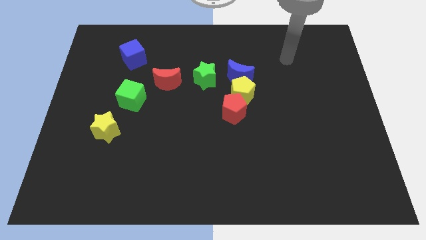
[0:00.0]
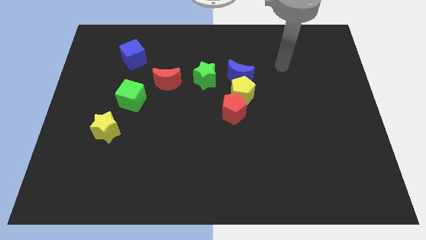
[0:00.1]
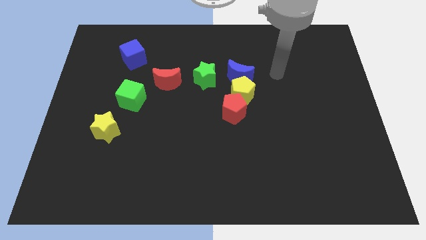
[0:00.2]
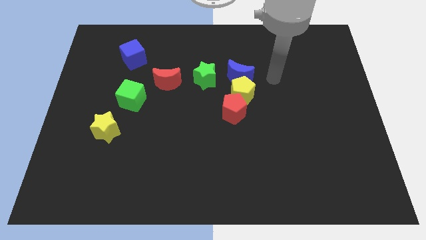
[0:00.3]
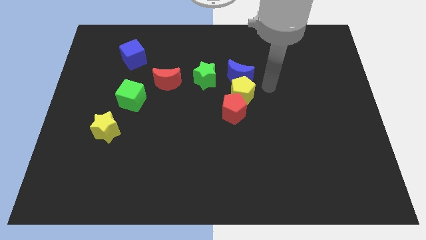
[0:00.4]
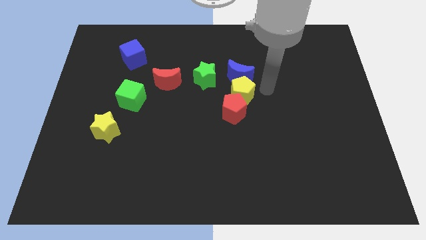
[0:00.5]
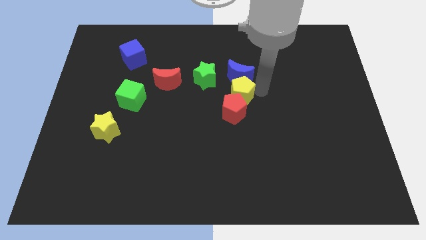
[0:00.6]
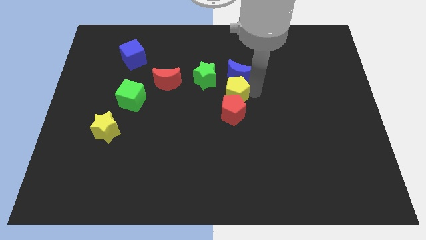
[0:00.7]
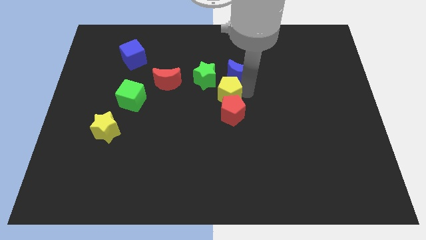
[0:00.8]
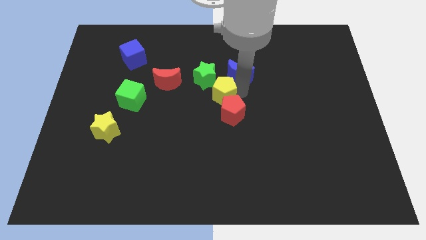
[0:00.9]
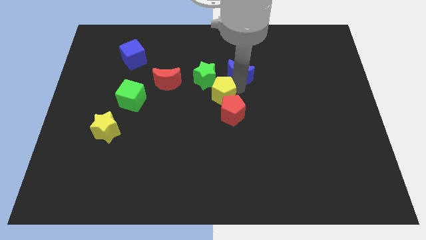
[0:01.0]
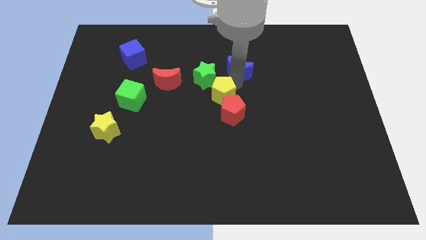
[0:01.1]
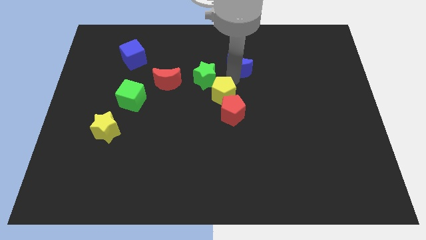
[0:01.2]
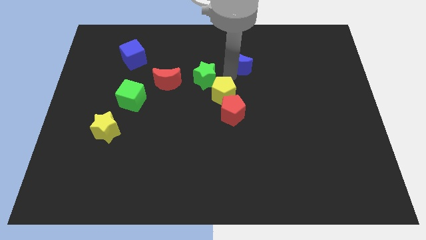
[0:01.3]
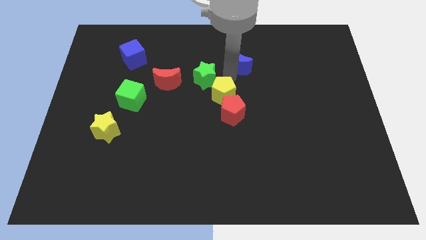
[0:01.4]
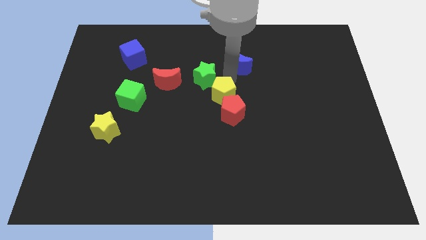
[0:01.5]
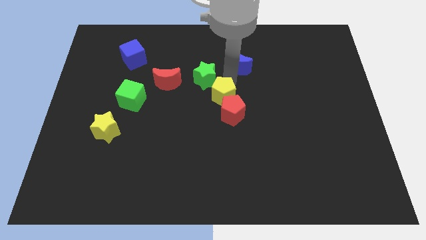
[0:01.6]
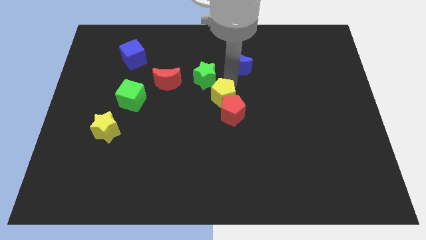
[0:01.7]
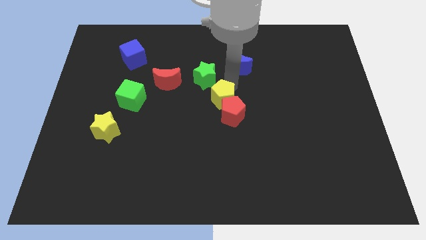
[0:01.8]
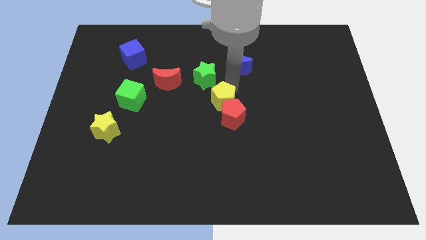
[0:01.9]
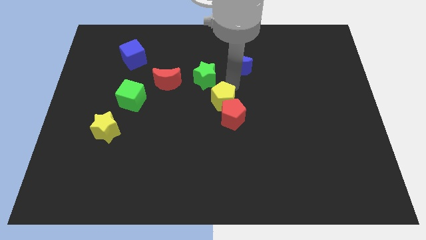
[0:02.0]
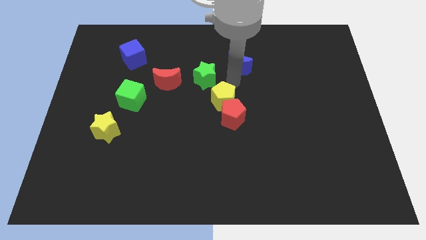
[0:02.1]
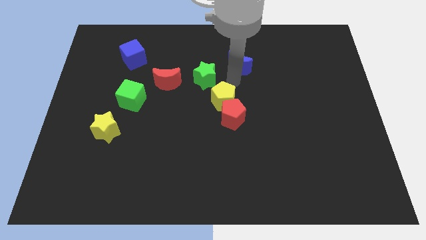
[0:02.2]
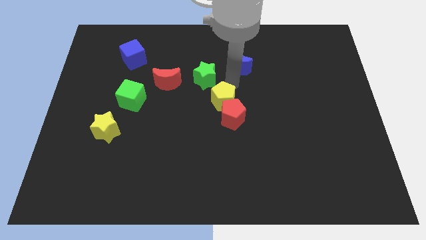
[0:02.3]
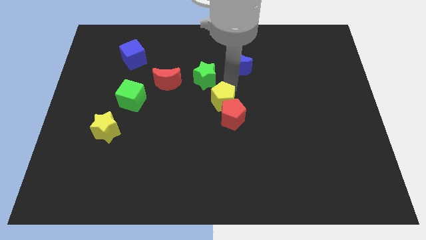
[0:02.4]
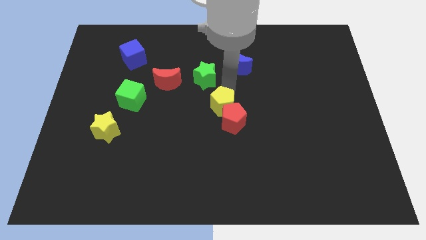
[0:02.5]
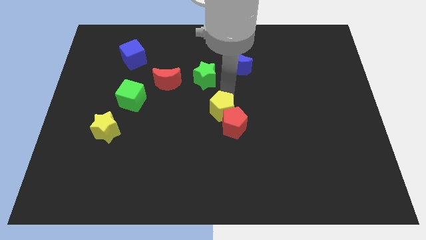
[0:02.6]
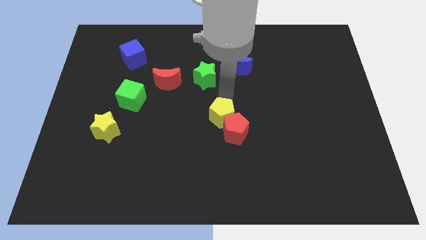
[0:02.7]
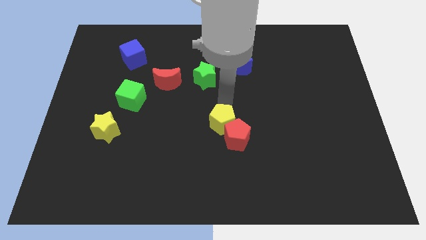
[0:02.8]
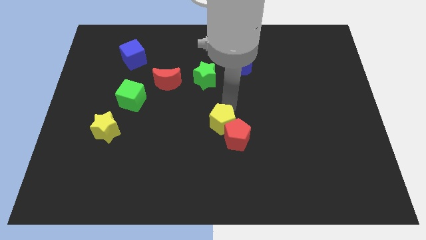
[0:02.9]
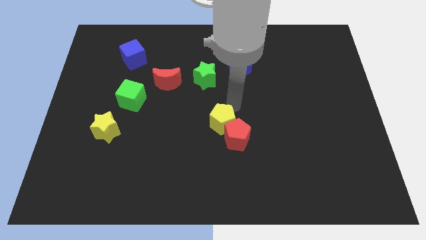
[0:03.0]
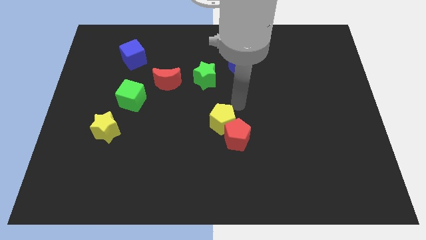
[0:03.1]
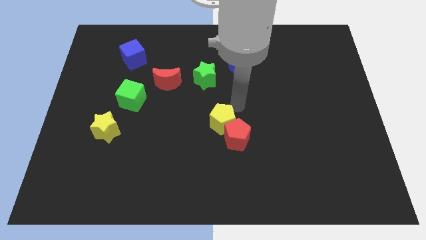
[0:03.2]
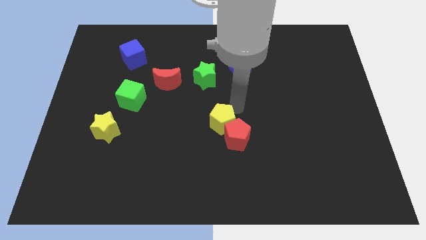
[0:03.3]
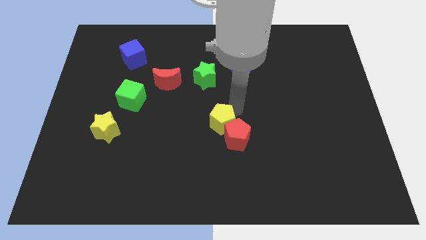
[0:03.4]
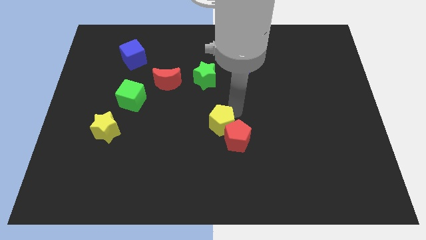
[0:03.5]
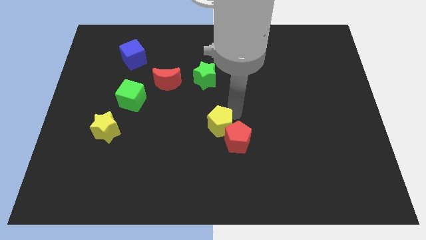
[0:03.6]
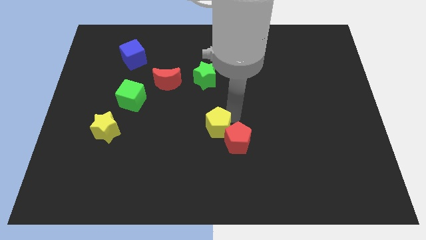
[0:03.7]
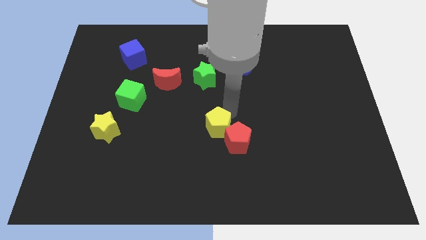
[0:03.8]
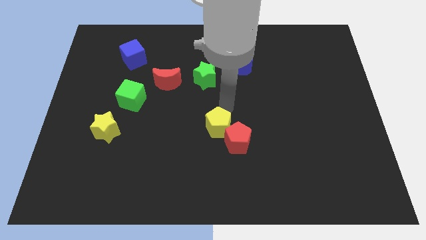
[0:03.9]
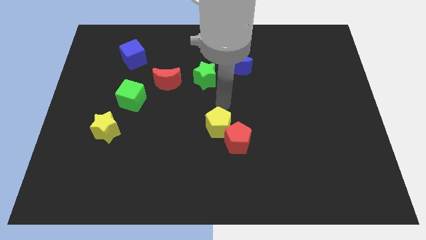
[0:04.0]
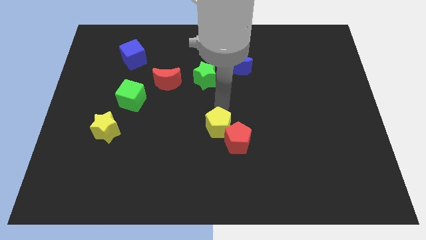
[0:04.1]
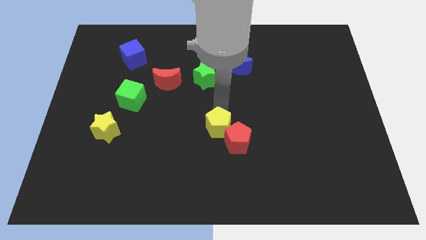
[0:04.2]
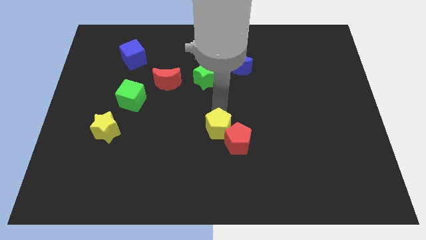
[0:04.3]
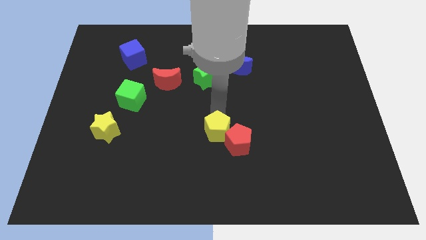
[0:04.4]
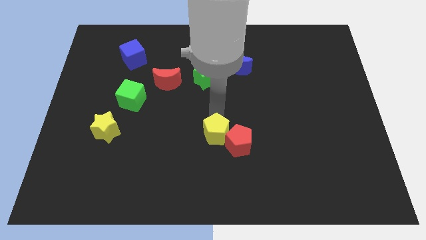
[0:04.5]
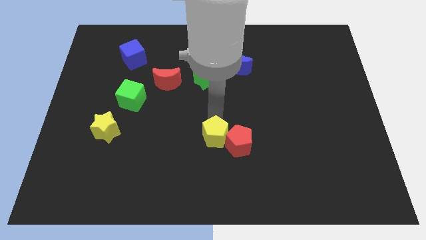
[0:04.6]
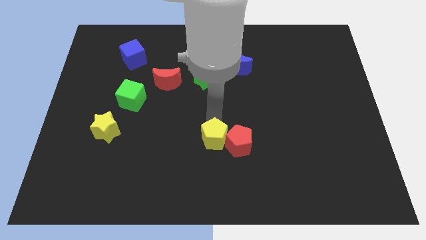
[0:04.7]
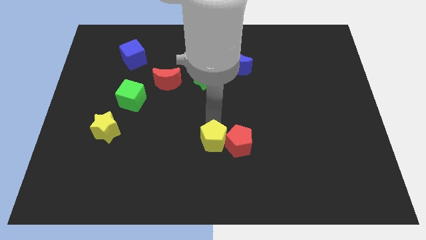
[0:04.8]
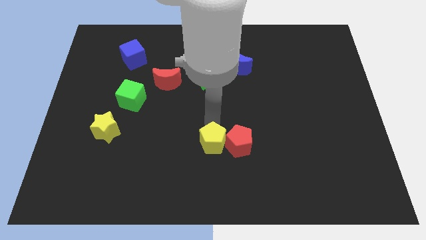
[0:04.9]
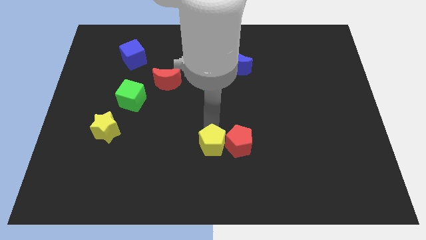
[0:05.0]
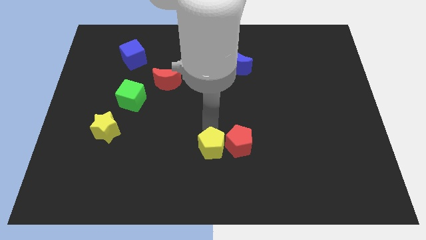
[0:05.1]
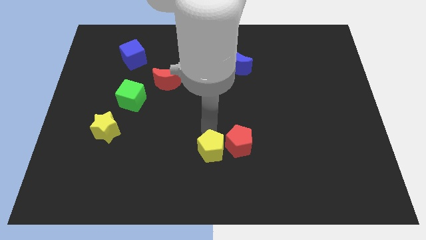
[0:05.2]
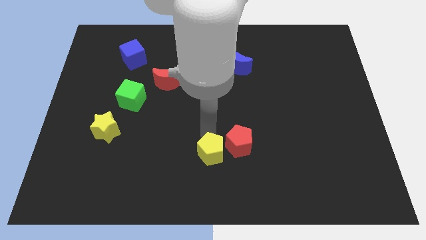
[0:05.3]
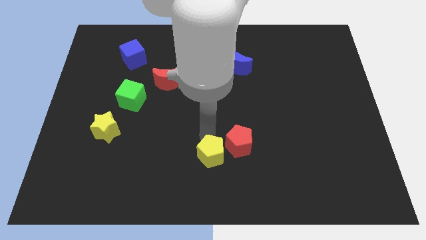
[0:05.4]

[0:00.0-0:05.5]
put the yellow pentagon to the bottom side

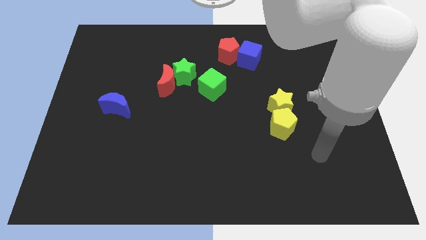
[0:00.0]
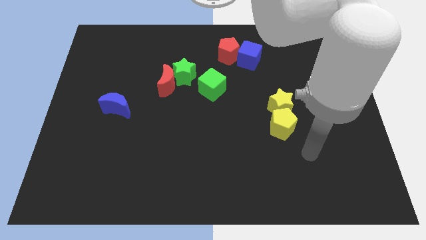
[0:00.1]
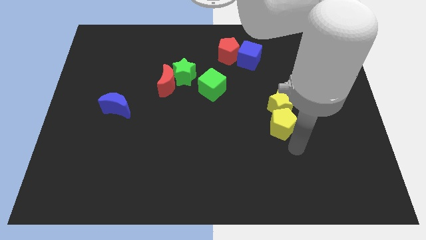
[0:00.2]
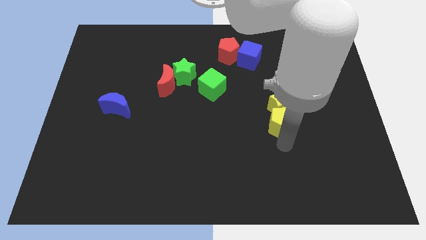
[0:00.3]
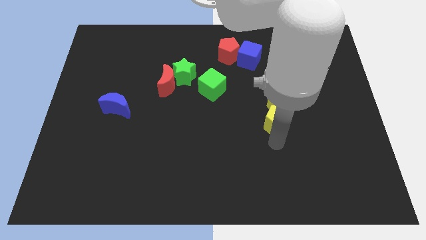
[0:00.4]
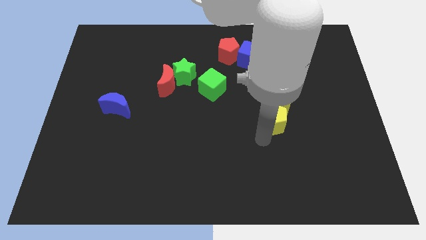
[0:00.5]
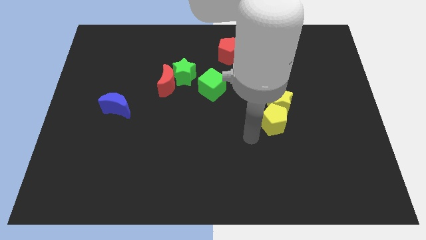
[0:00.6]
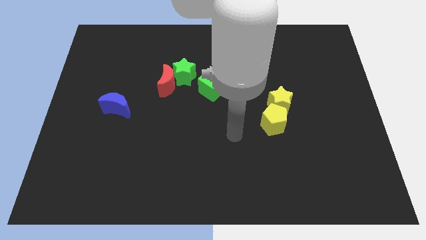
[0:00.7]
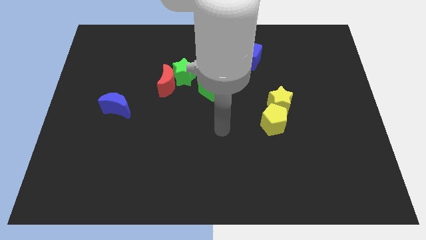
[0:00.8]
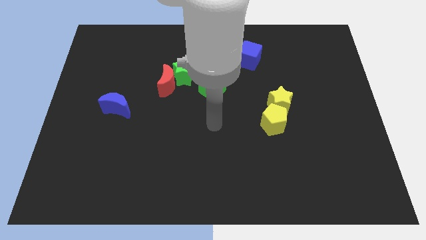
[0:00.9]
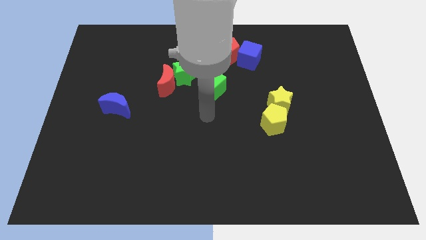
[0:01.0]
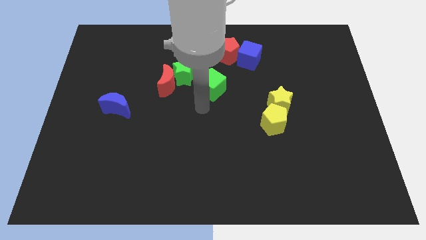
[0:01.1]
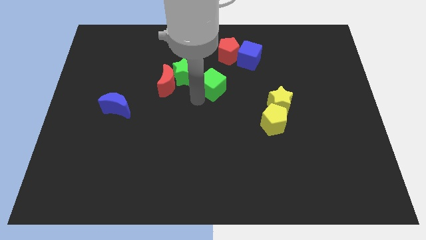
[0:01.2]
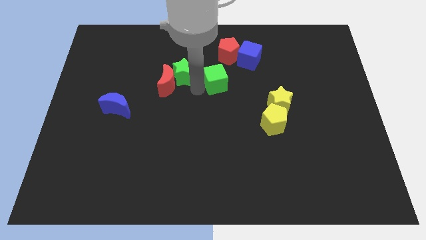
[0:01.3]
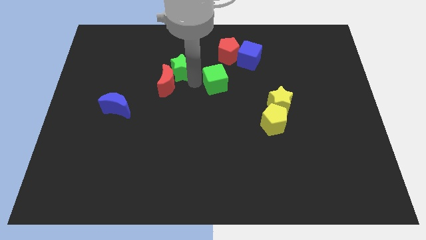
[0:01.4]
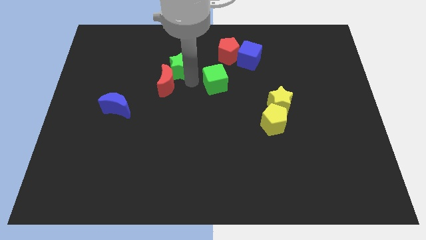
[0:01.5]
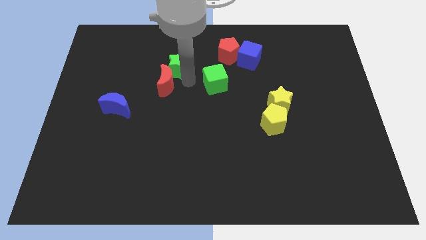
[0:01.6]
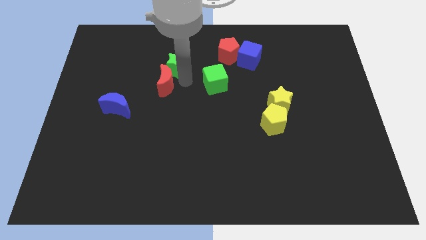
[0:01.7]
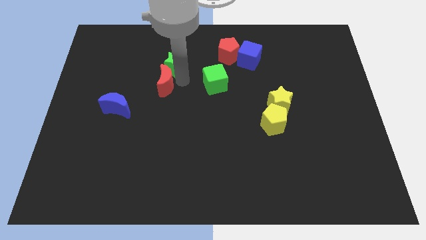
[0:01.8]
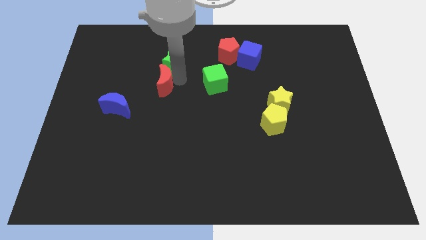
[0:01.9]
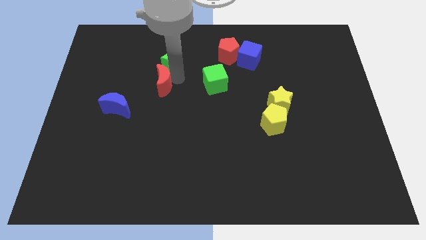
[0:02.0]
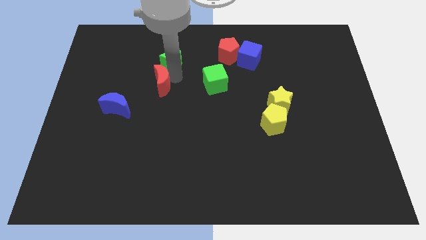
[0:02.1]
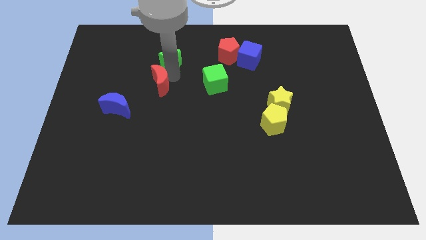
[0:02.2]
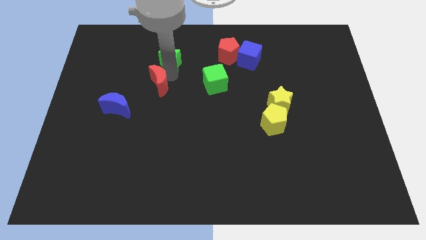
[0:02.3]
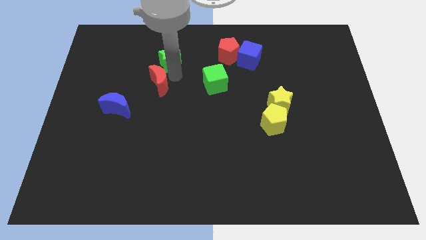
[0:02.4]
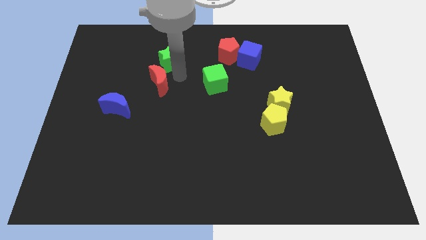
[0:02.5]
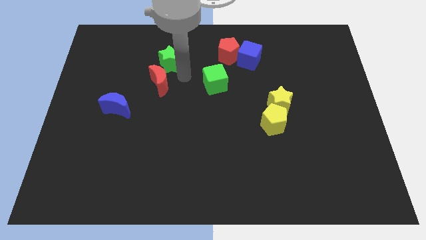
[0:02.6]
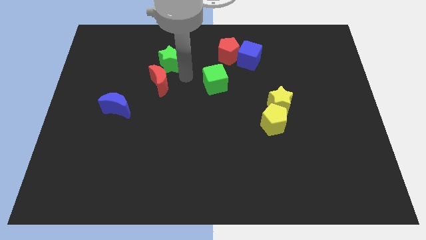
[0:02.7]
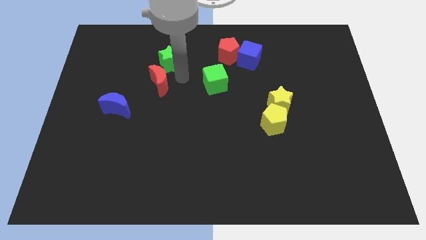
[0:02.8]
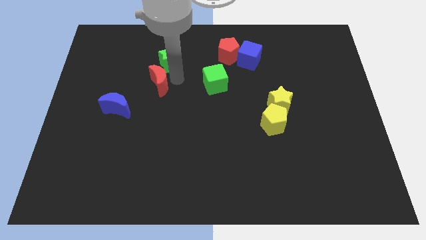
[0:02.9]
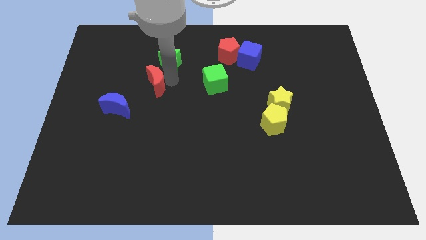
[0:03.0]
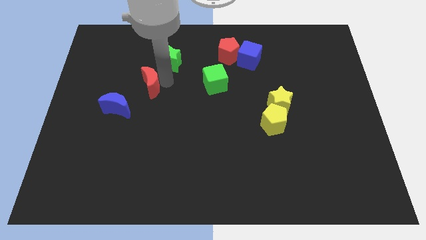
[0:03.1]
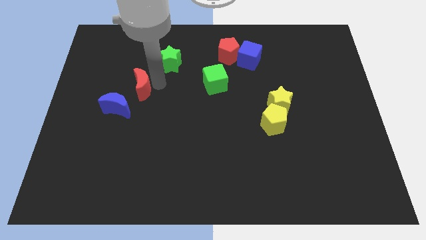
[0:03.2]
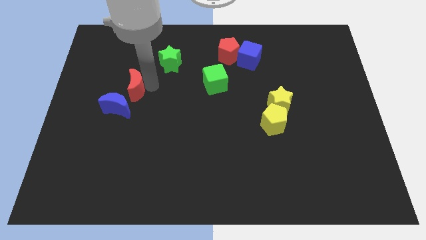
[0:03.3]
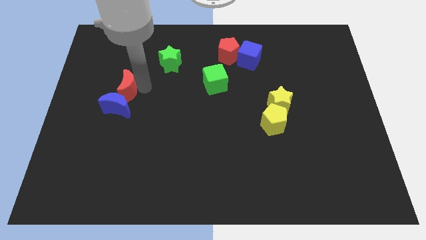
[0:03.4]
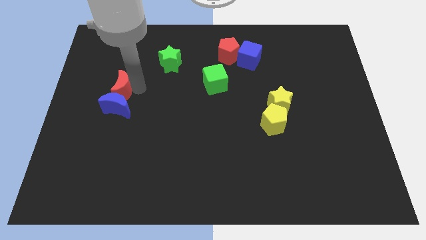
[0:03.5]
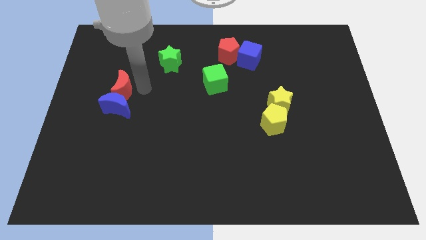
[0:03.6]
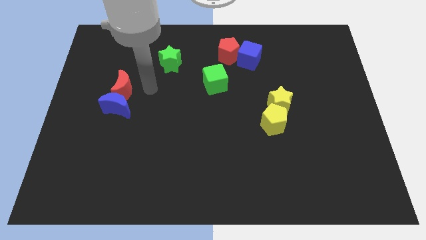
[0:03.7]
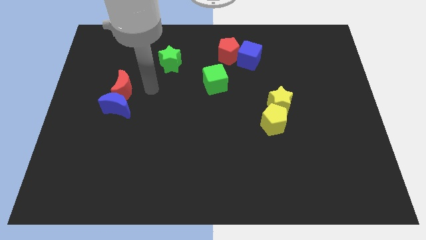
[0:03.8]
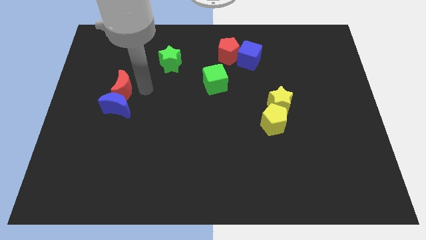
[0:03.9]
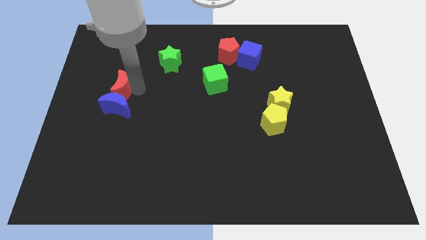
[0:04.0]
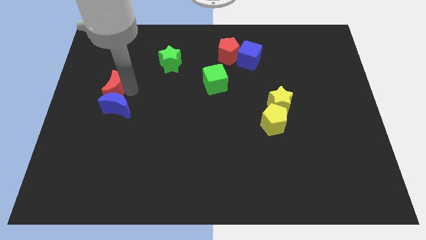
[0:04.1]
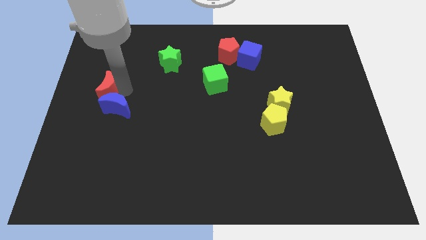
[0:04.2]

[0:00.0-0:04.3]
slide the red moon to the left side
